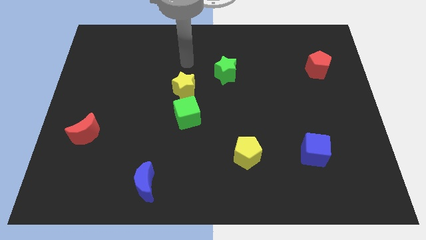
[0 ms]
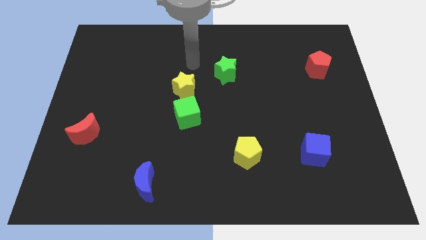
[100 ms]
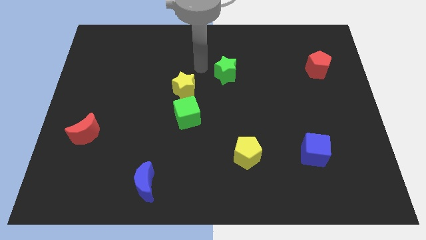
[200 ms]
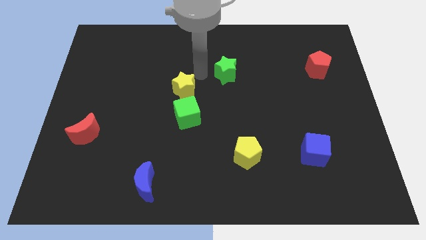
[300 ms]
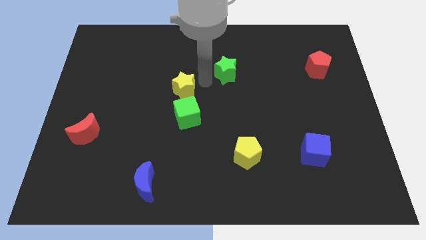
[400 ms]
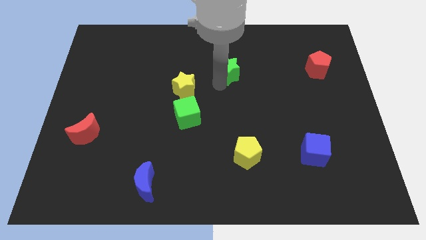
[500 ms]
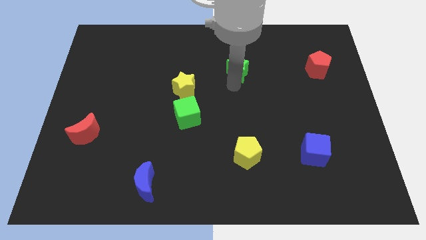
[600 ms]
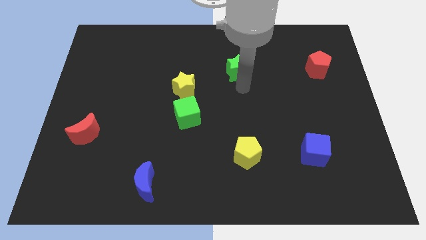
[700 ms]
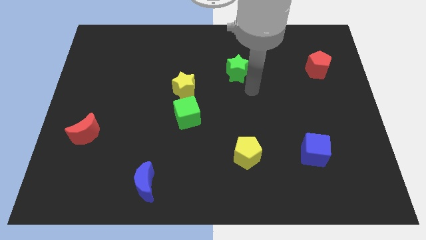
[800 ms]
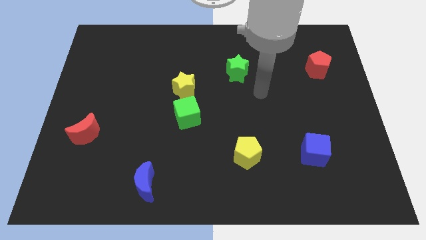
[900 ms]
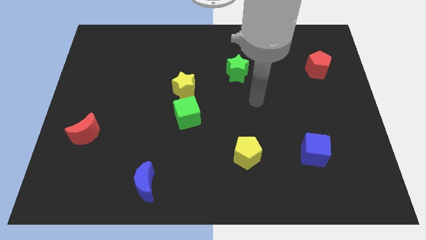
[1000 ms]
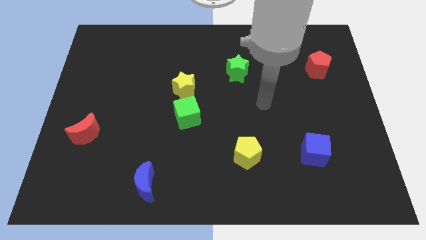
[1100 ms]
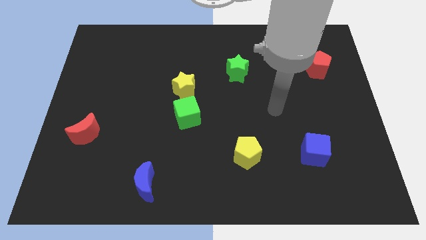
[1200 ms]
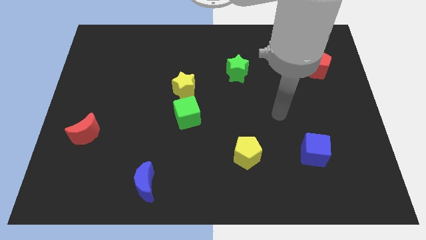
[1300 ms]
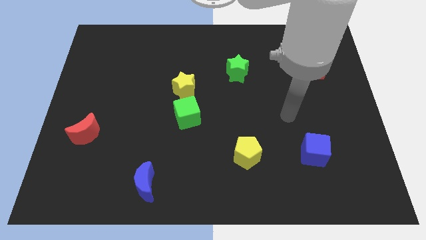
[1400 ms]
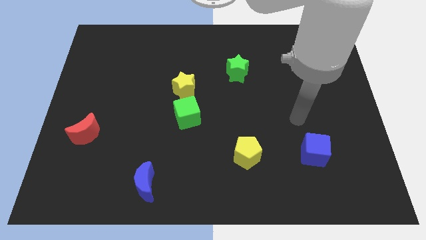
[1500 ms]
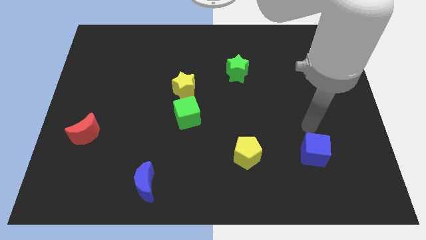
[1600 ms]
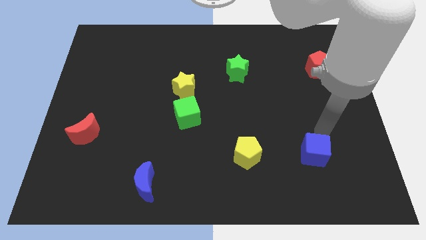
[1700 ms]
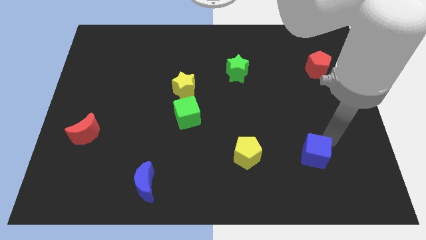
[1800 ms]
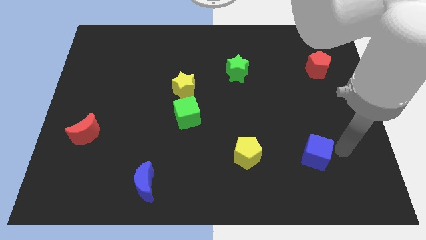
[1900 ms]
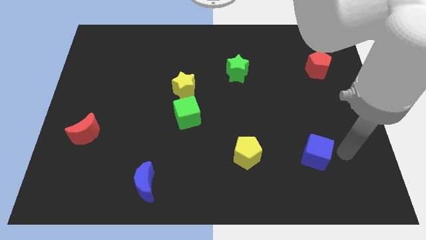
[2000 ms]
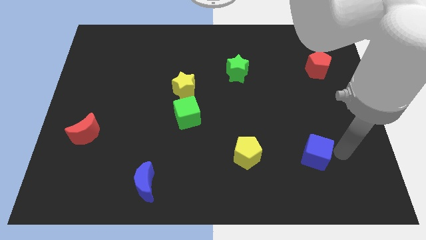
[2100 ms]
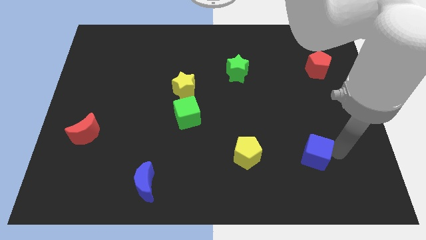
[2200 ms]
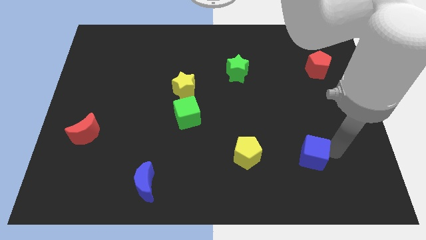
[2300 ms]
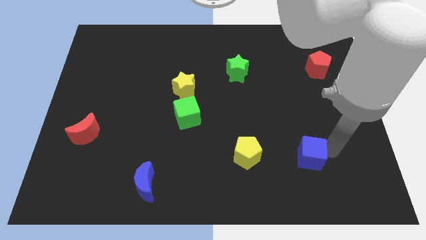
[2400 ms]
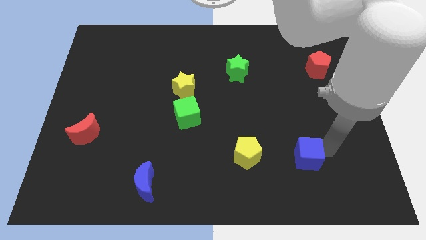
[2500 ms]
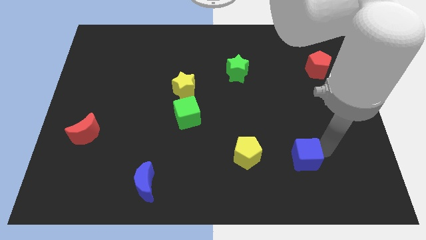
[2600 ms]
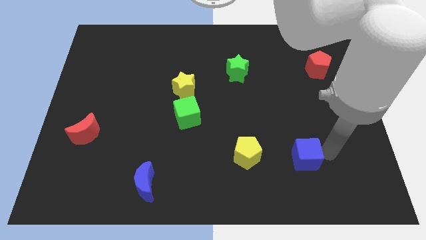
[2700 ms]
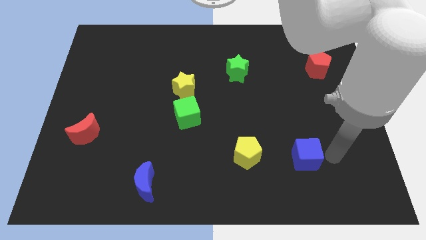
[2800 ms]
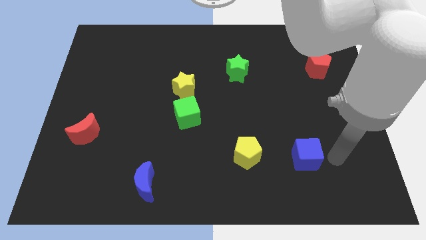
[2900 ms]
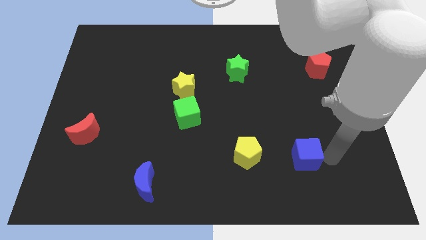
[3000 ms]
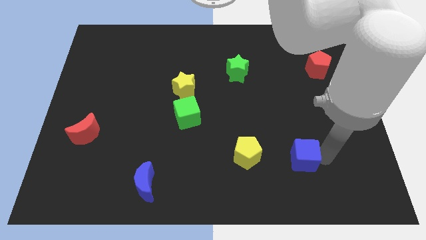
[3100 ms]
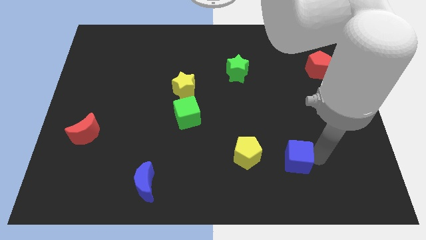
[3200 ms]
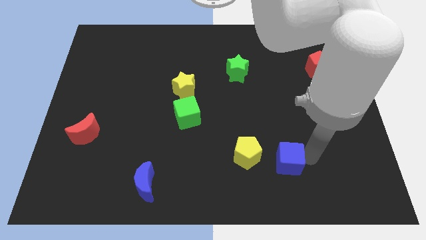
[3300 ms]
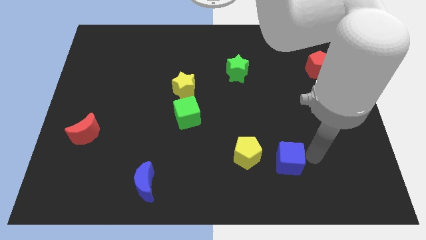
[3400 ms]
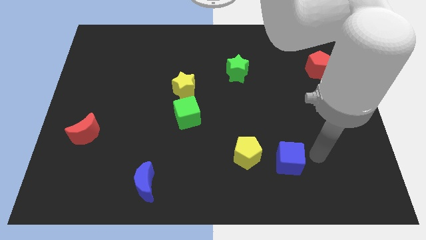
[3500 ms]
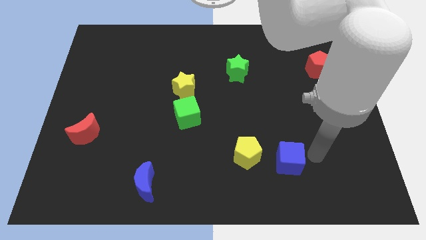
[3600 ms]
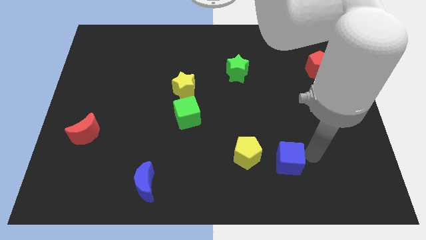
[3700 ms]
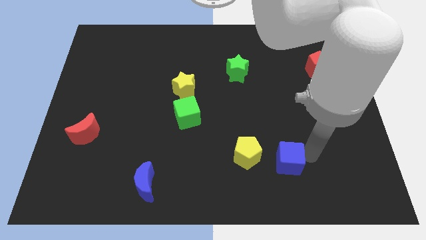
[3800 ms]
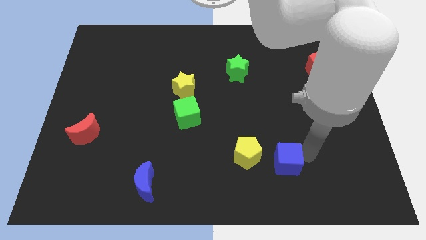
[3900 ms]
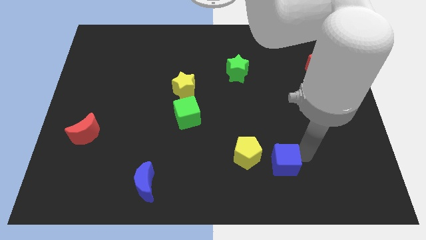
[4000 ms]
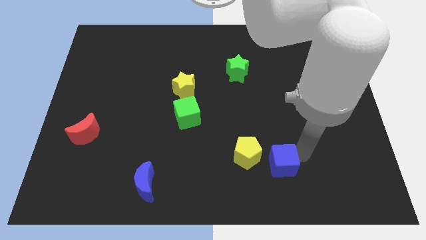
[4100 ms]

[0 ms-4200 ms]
slightly push the blue cube to the left

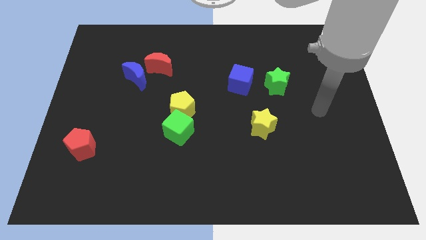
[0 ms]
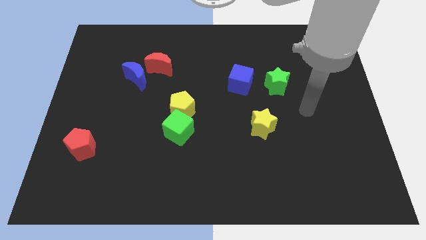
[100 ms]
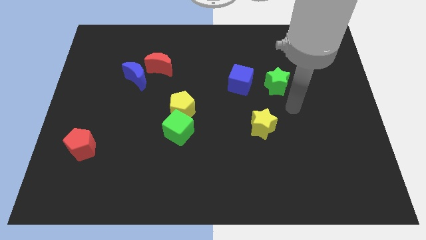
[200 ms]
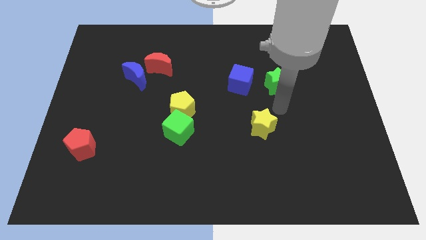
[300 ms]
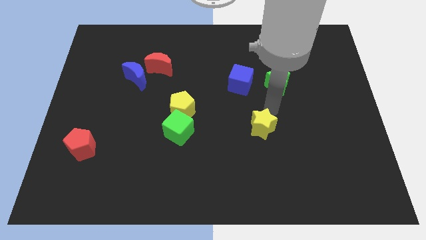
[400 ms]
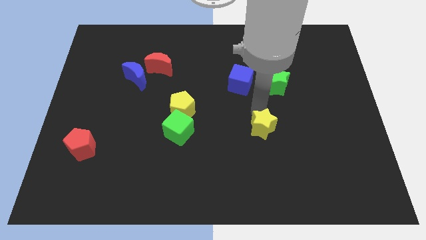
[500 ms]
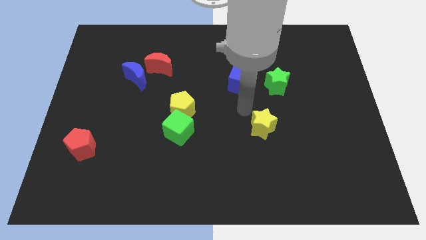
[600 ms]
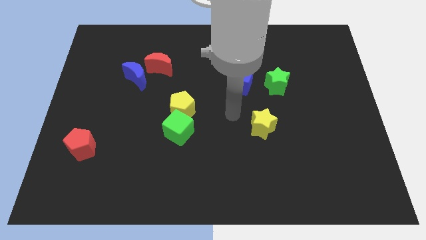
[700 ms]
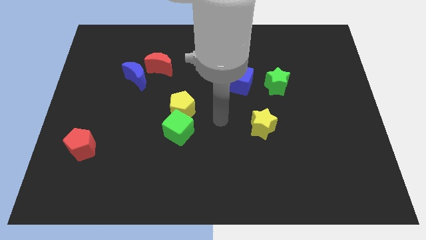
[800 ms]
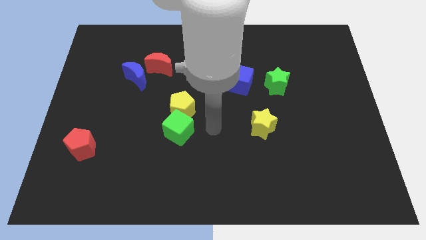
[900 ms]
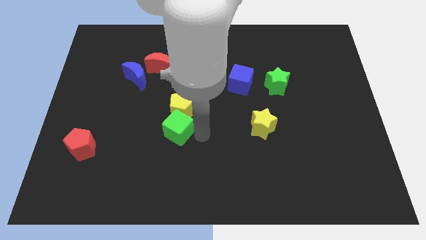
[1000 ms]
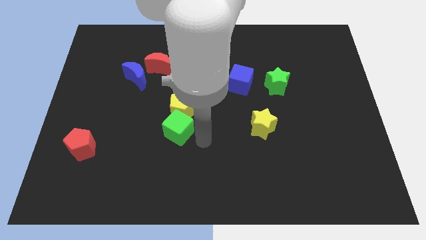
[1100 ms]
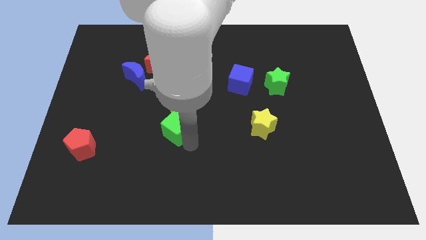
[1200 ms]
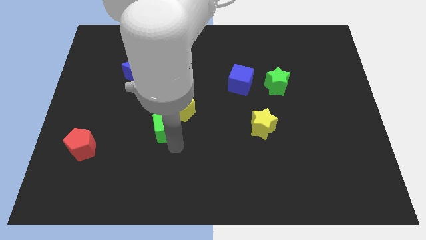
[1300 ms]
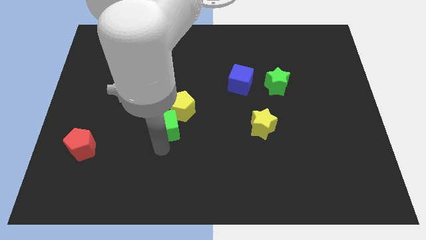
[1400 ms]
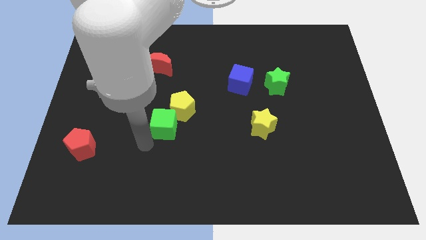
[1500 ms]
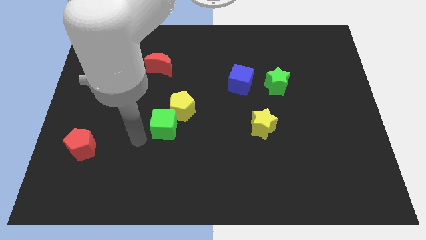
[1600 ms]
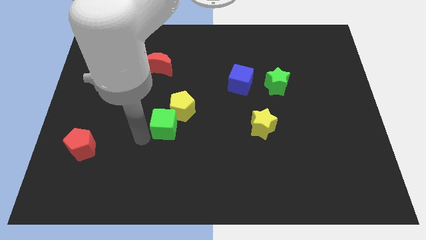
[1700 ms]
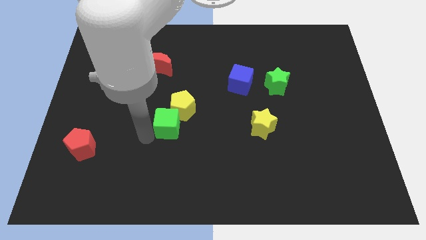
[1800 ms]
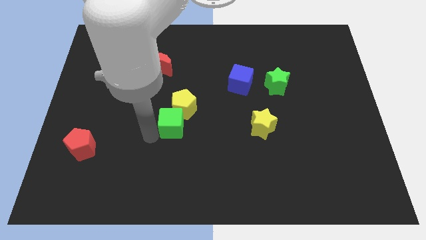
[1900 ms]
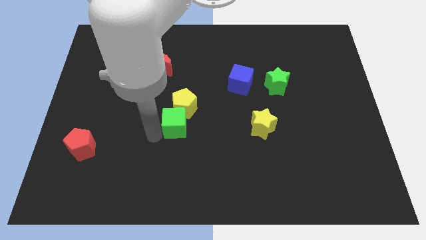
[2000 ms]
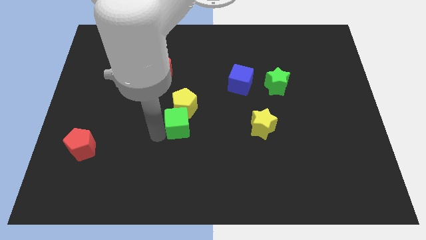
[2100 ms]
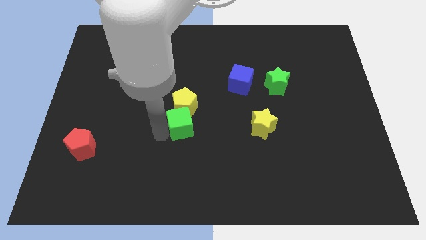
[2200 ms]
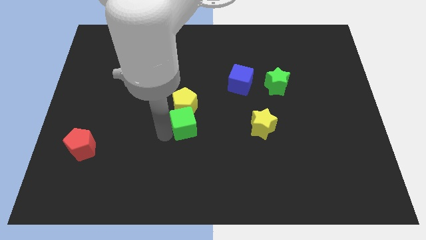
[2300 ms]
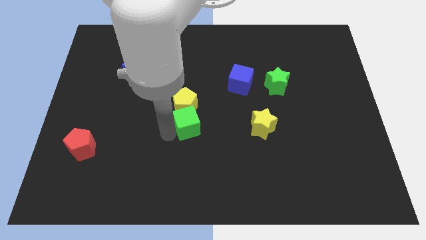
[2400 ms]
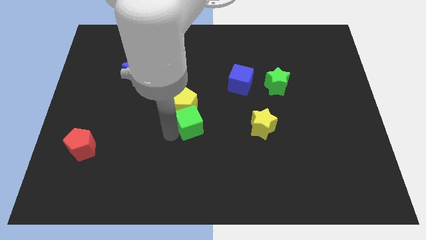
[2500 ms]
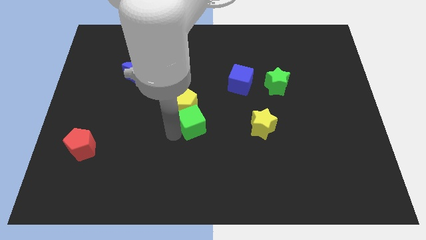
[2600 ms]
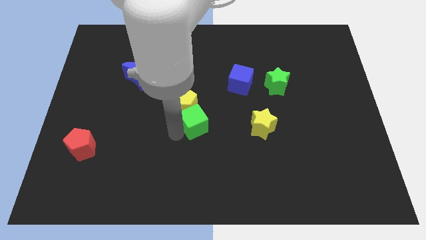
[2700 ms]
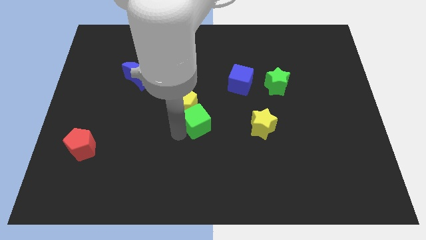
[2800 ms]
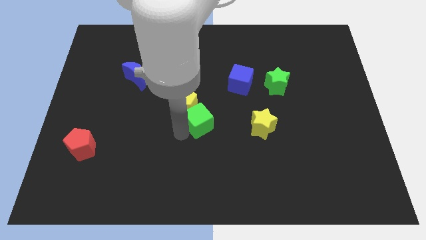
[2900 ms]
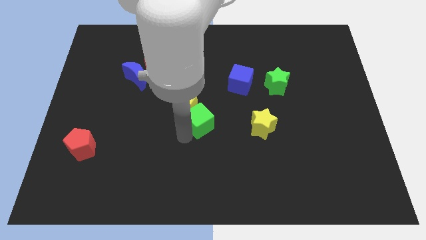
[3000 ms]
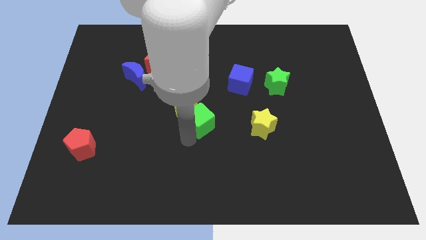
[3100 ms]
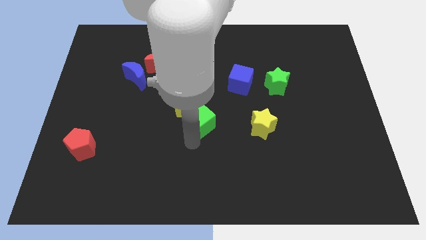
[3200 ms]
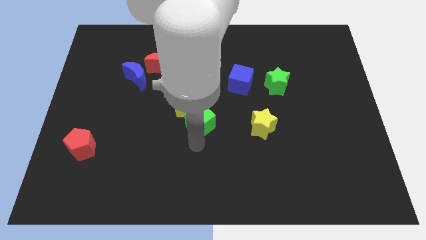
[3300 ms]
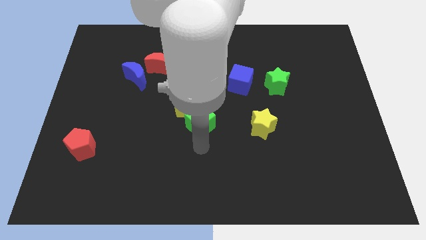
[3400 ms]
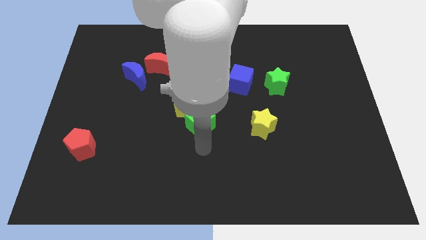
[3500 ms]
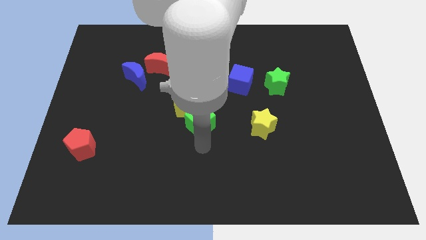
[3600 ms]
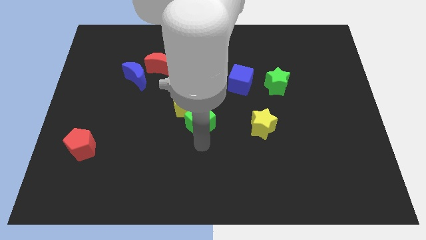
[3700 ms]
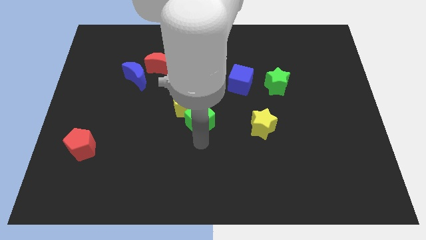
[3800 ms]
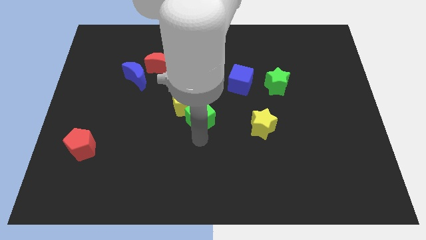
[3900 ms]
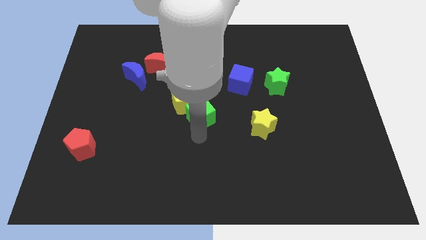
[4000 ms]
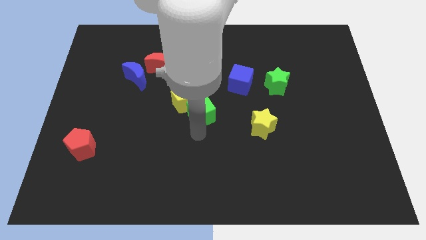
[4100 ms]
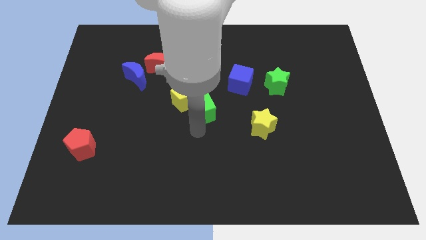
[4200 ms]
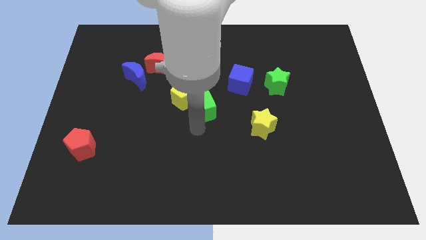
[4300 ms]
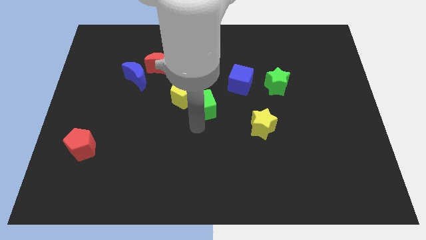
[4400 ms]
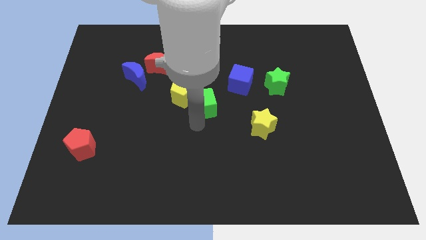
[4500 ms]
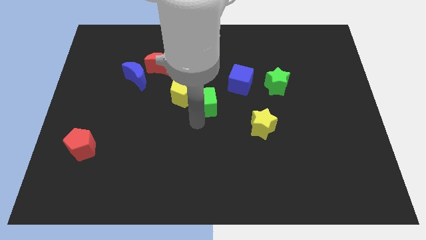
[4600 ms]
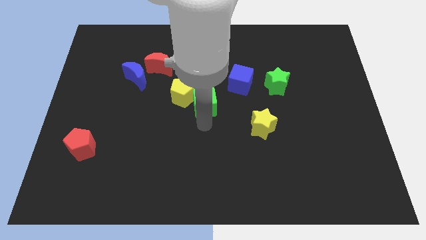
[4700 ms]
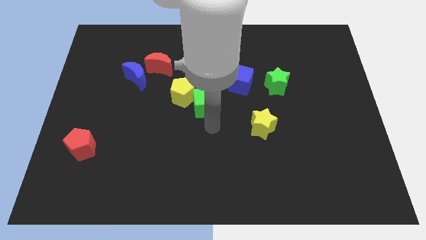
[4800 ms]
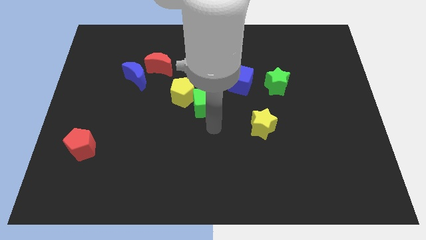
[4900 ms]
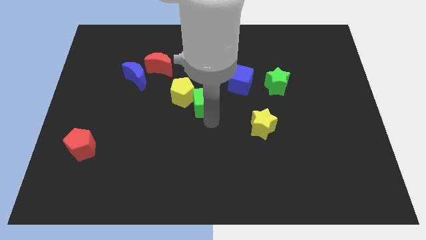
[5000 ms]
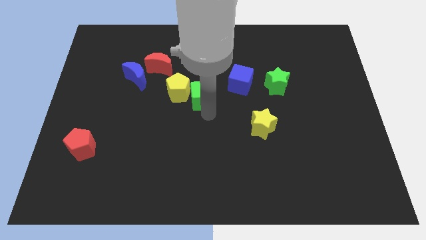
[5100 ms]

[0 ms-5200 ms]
move the green cube up a little bit
